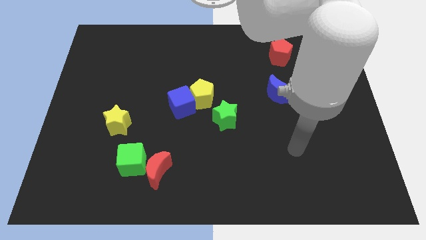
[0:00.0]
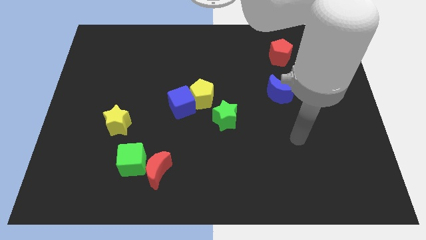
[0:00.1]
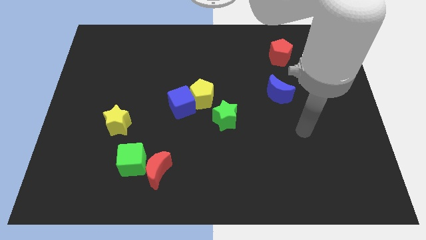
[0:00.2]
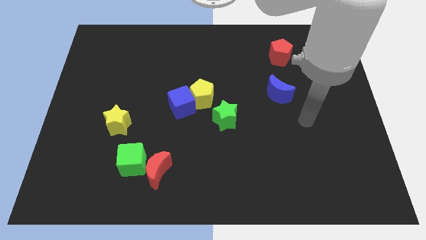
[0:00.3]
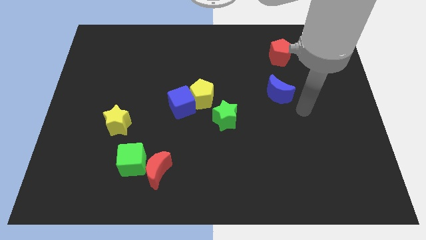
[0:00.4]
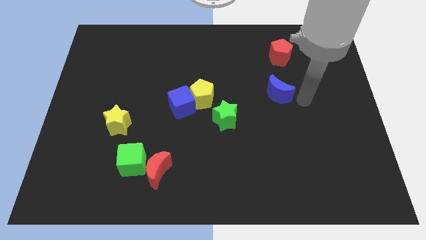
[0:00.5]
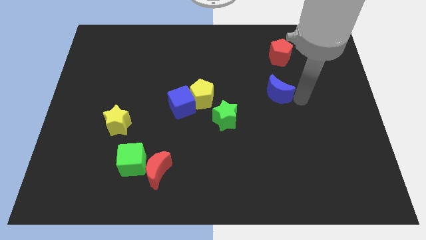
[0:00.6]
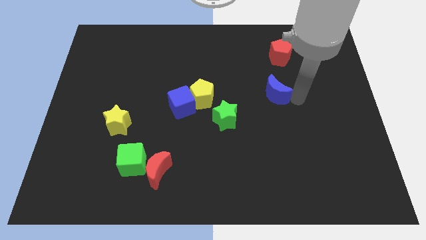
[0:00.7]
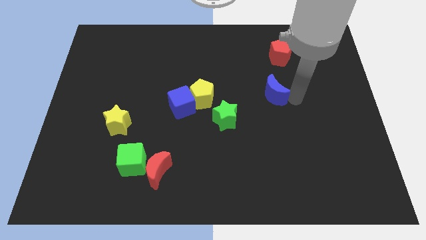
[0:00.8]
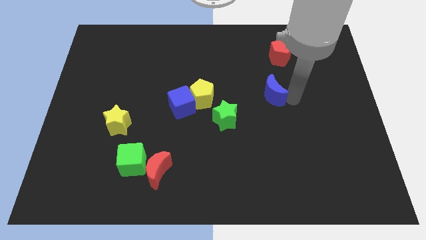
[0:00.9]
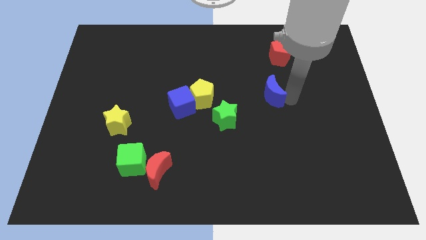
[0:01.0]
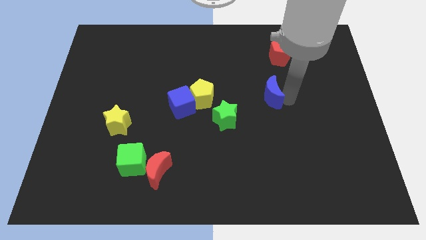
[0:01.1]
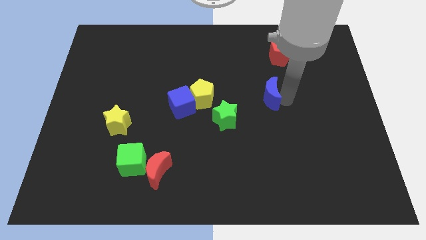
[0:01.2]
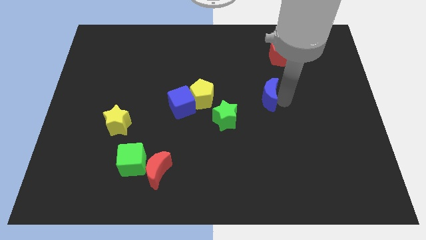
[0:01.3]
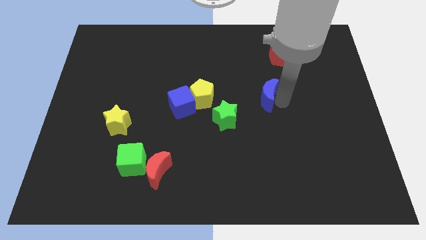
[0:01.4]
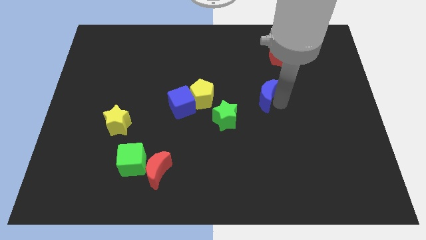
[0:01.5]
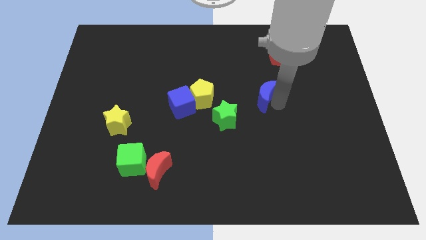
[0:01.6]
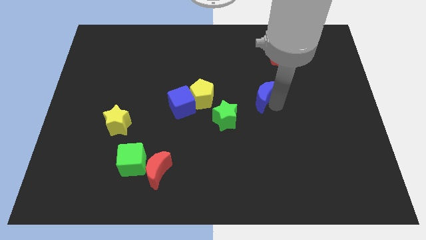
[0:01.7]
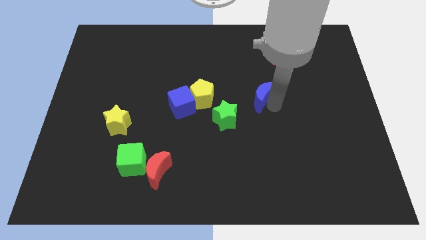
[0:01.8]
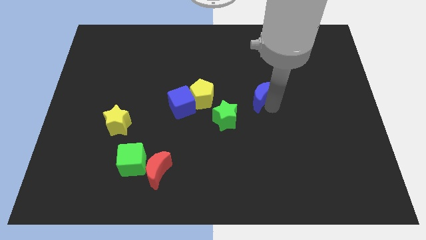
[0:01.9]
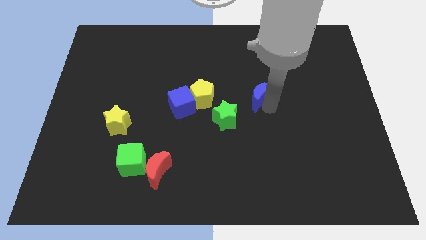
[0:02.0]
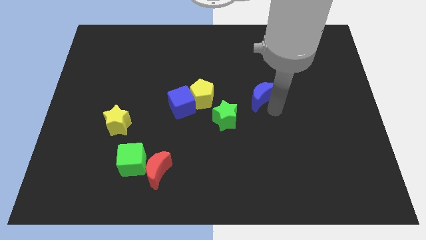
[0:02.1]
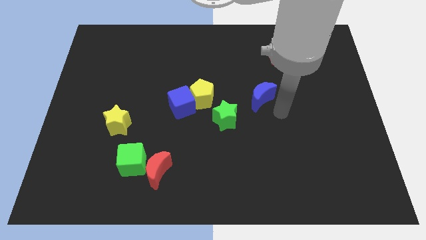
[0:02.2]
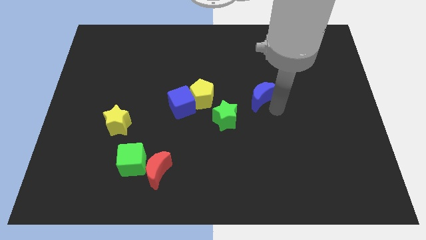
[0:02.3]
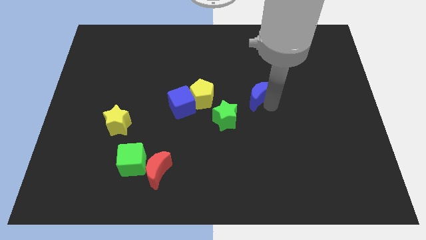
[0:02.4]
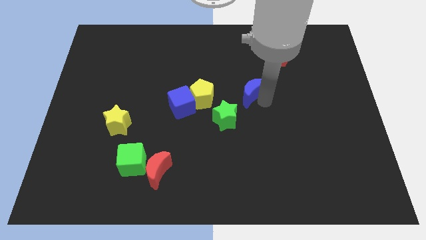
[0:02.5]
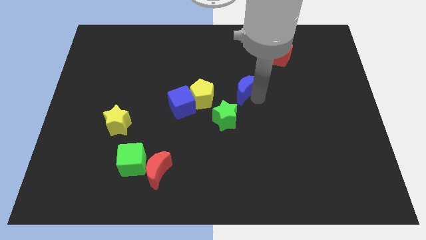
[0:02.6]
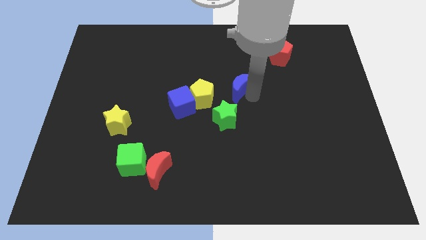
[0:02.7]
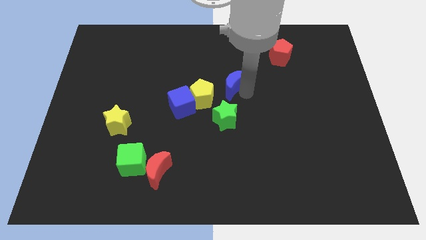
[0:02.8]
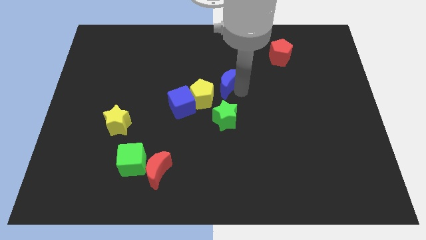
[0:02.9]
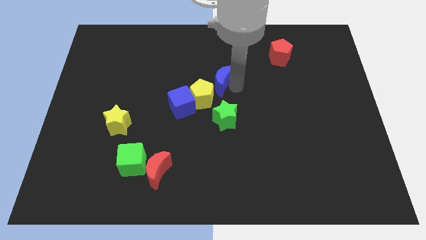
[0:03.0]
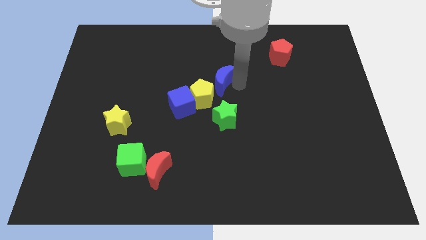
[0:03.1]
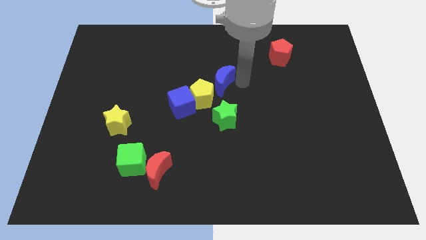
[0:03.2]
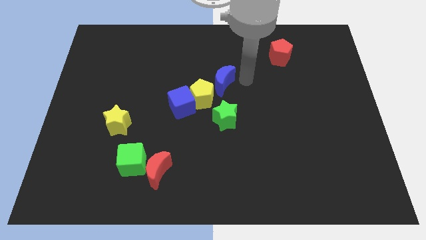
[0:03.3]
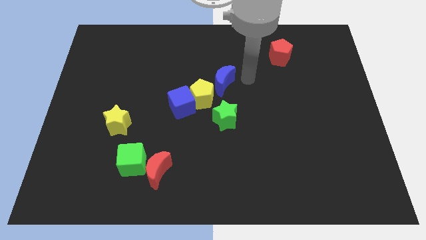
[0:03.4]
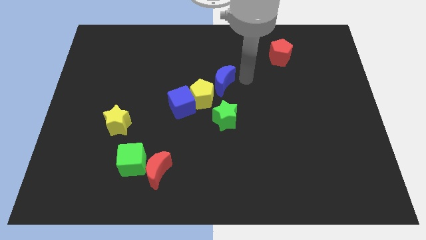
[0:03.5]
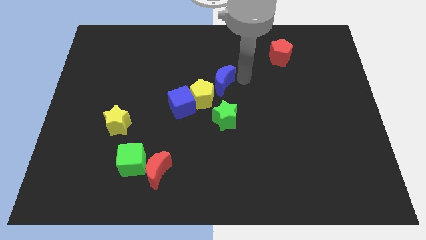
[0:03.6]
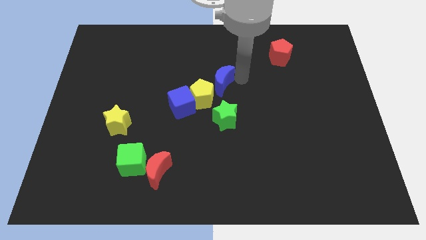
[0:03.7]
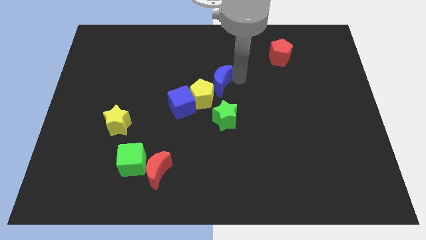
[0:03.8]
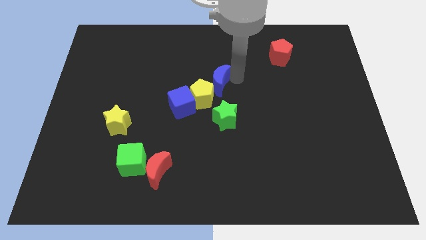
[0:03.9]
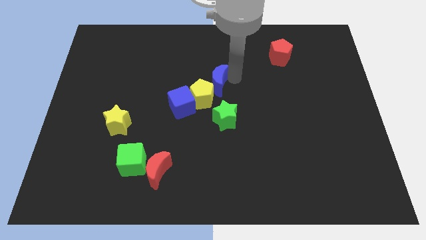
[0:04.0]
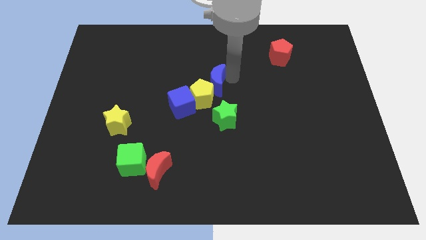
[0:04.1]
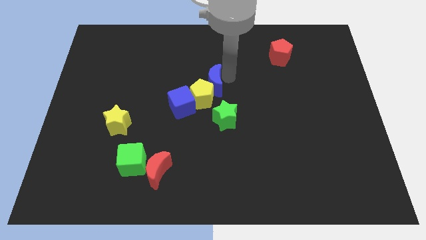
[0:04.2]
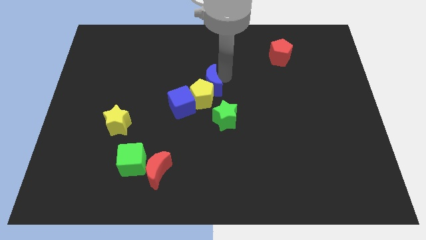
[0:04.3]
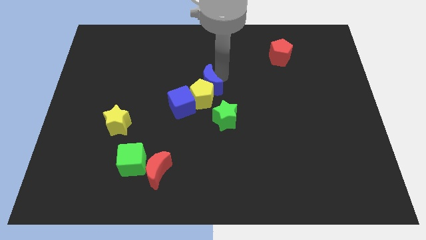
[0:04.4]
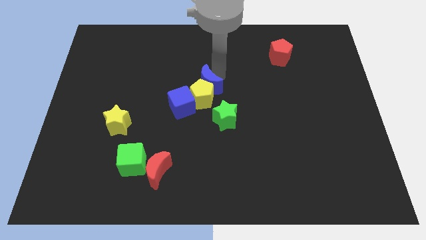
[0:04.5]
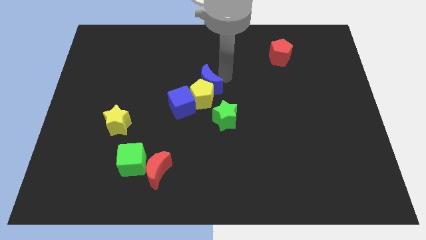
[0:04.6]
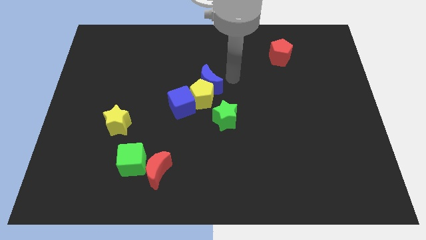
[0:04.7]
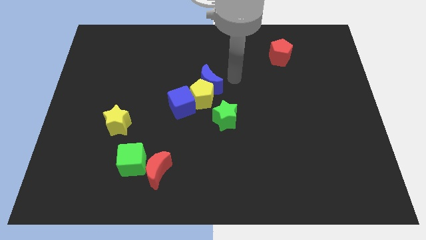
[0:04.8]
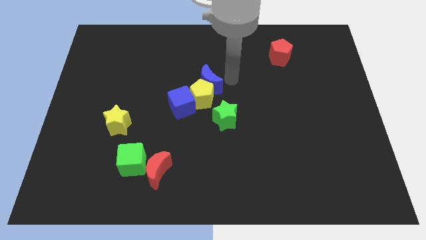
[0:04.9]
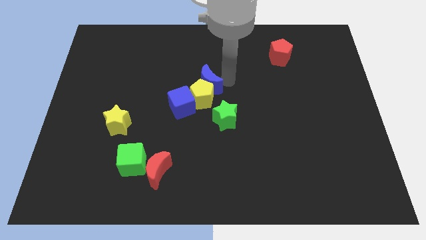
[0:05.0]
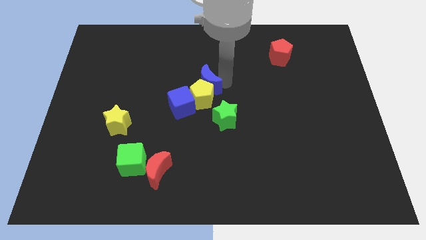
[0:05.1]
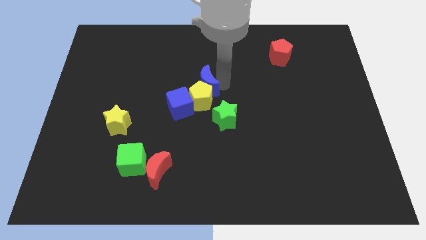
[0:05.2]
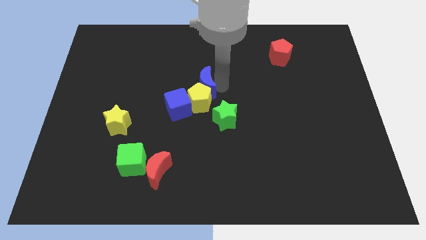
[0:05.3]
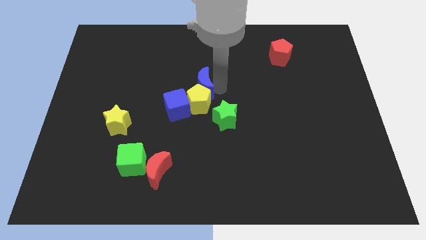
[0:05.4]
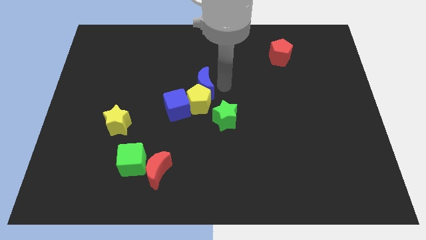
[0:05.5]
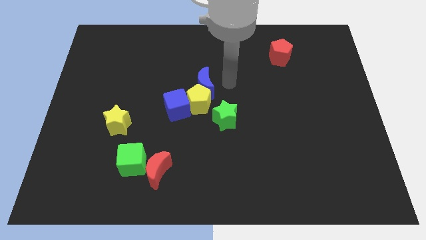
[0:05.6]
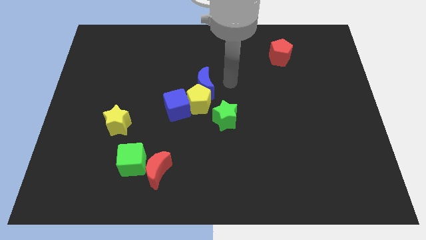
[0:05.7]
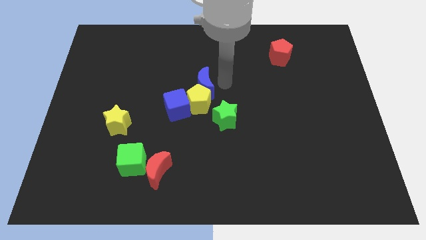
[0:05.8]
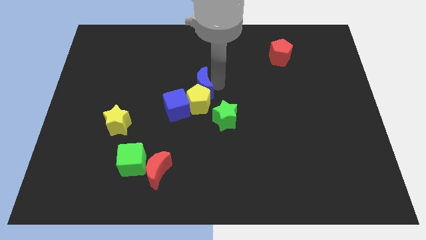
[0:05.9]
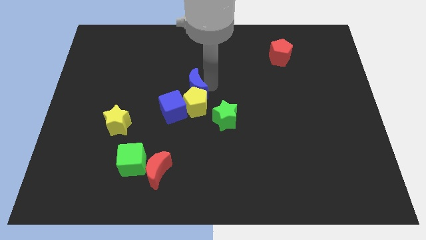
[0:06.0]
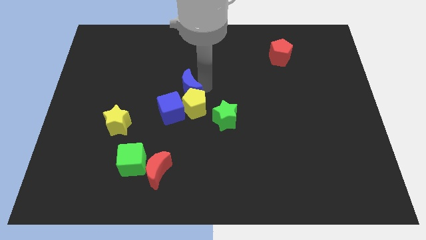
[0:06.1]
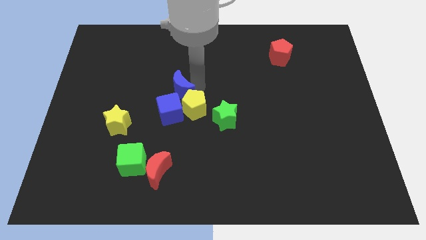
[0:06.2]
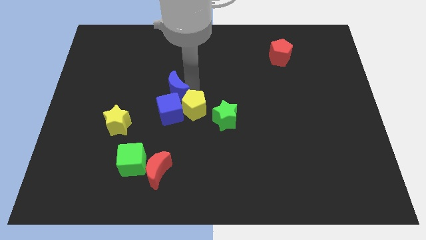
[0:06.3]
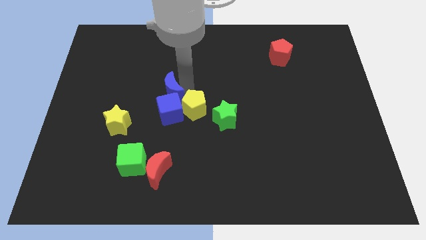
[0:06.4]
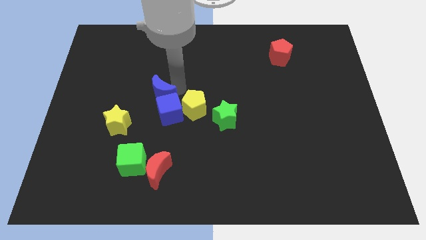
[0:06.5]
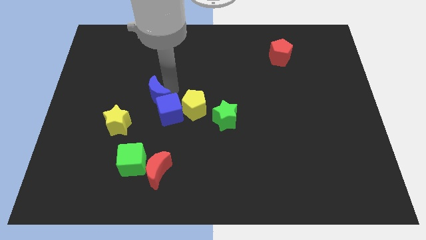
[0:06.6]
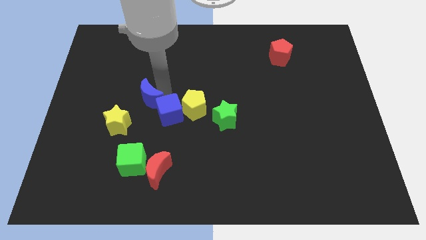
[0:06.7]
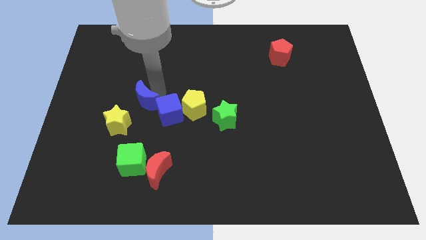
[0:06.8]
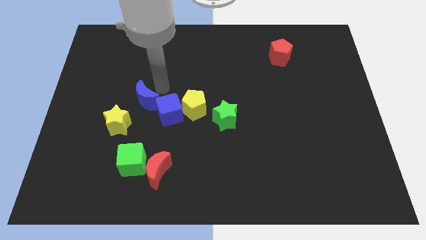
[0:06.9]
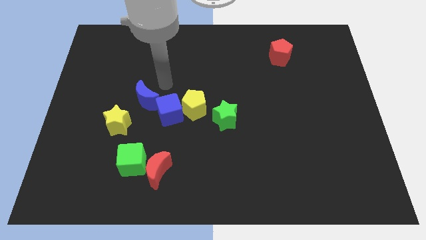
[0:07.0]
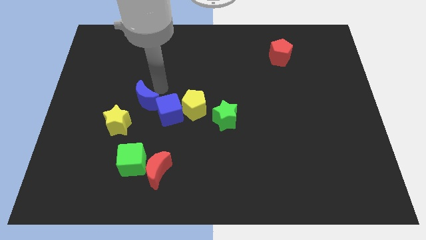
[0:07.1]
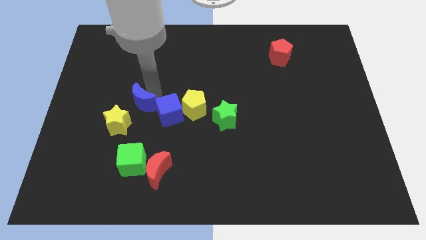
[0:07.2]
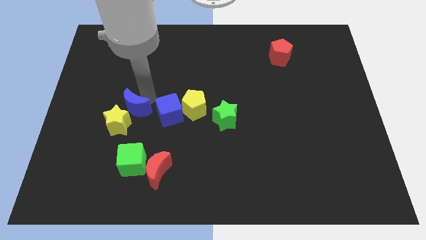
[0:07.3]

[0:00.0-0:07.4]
push the blue moon next to the yellow star
